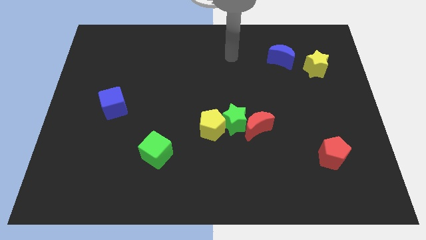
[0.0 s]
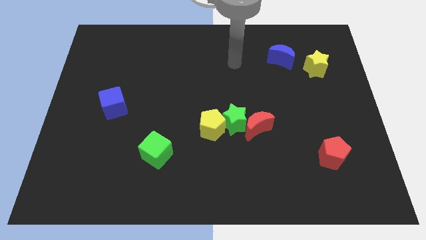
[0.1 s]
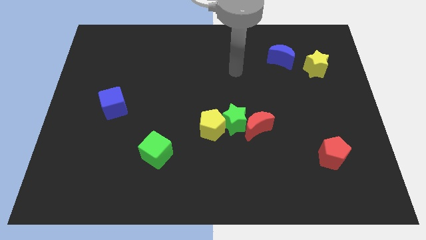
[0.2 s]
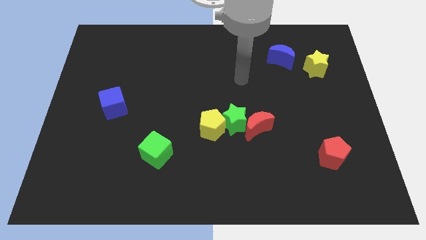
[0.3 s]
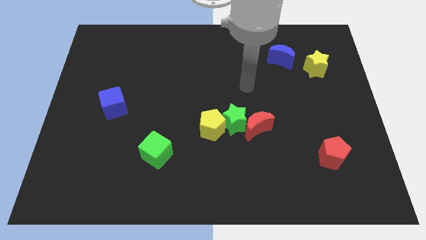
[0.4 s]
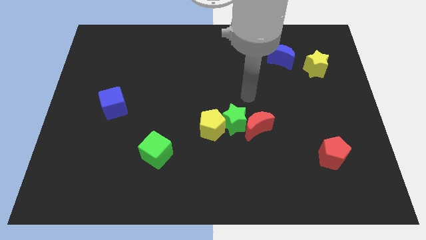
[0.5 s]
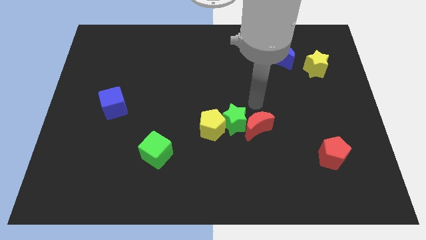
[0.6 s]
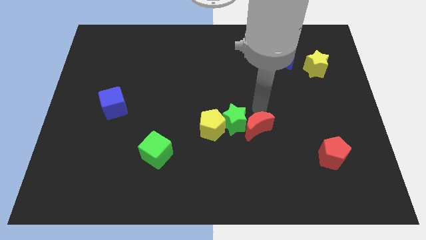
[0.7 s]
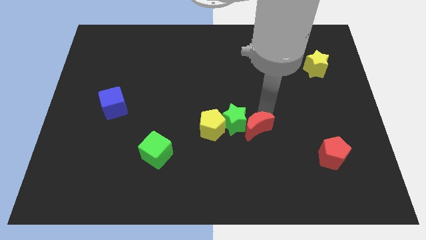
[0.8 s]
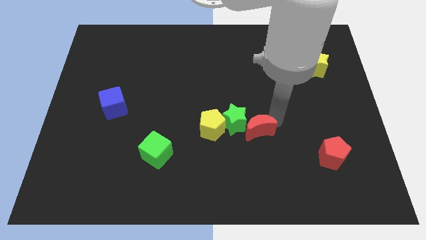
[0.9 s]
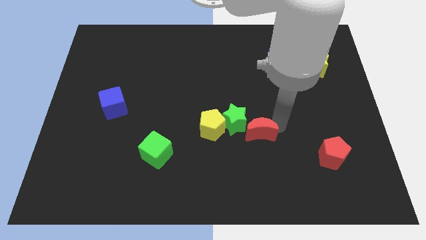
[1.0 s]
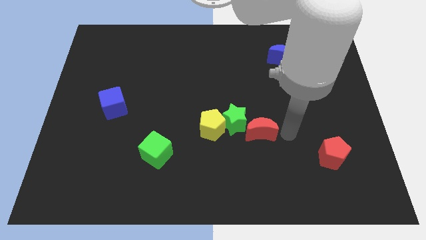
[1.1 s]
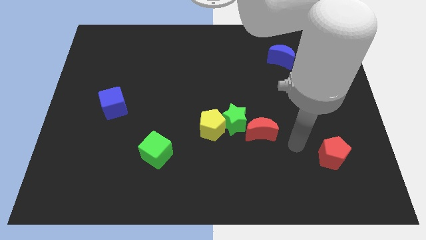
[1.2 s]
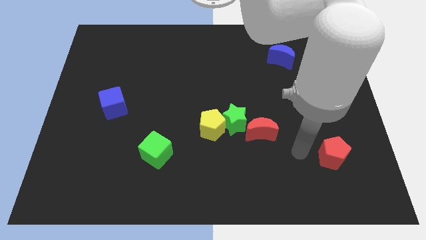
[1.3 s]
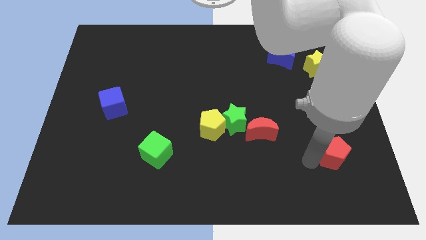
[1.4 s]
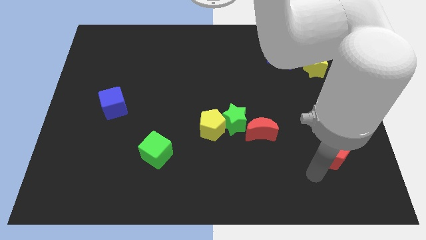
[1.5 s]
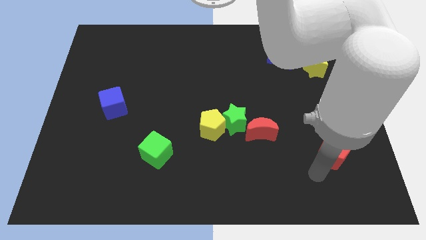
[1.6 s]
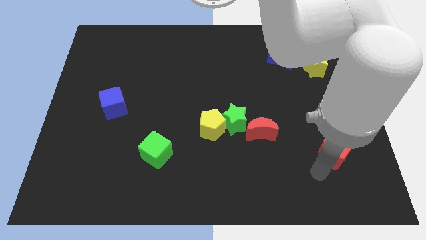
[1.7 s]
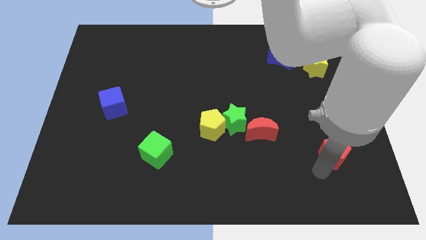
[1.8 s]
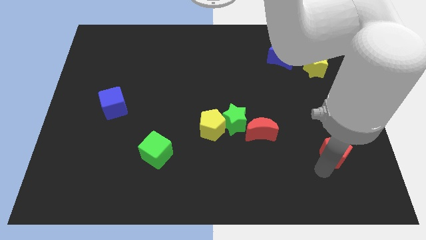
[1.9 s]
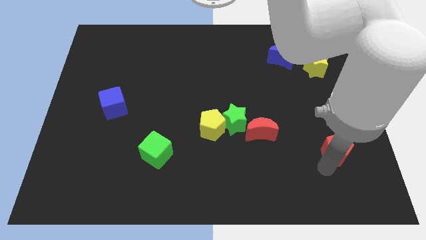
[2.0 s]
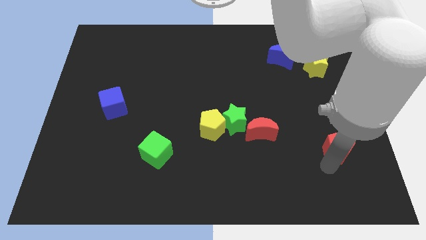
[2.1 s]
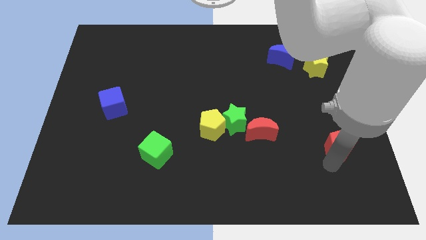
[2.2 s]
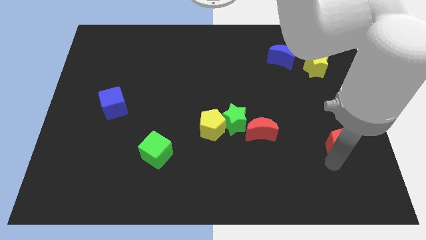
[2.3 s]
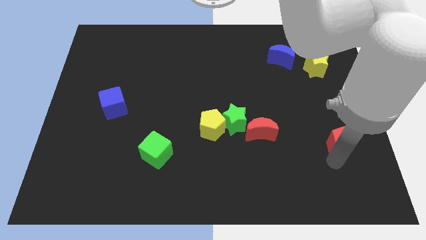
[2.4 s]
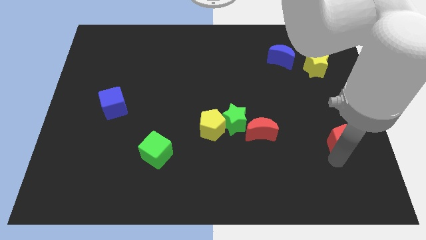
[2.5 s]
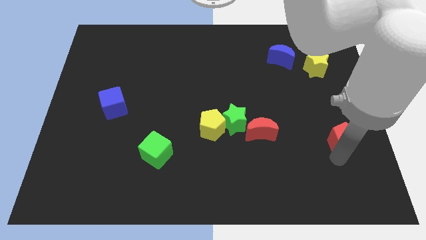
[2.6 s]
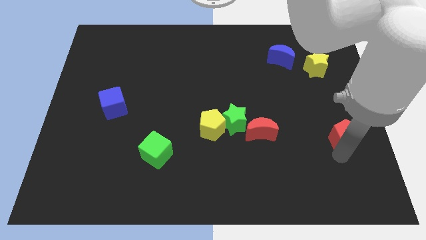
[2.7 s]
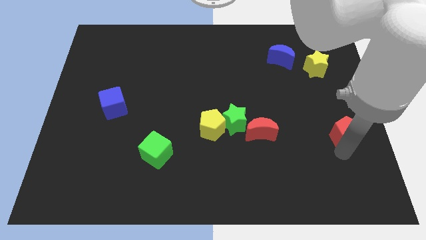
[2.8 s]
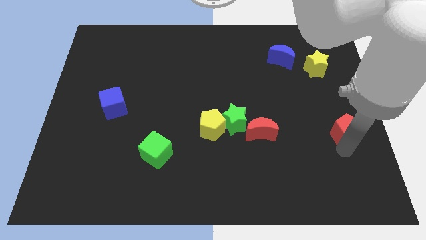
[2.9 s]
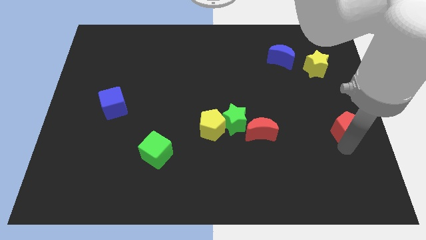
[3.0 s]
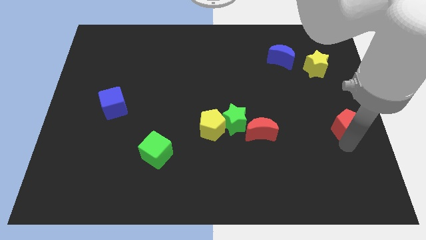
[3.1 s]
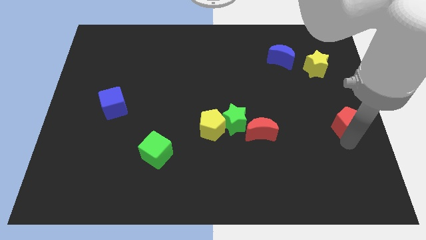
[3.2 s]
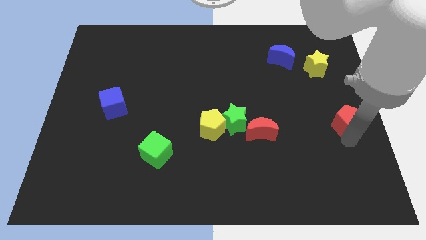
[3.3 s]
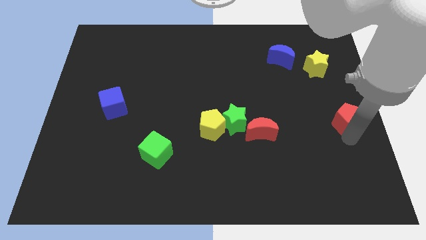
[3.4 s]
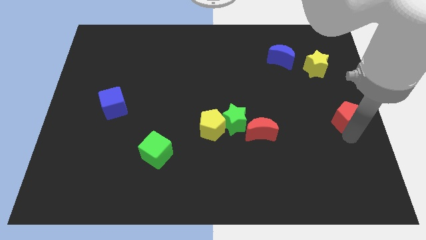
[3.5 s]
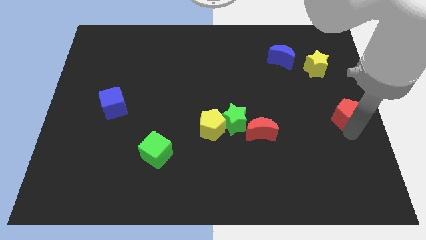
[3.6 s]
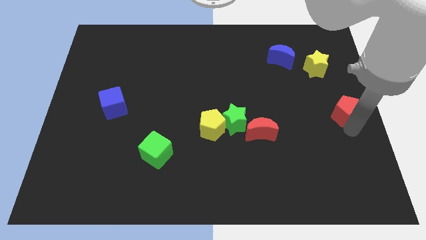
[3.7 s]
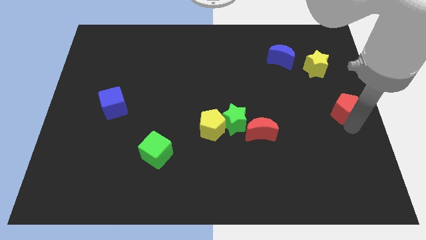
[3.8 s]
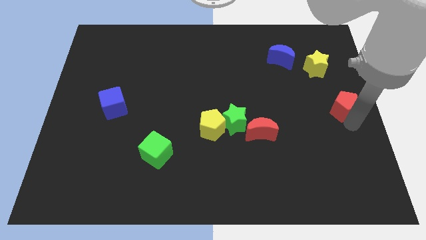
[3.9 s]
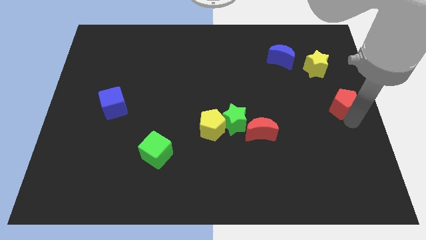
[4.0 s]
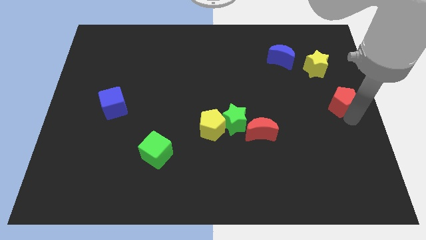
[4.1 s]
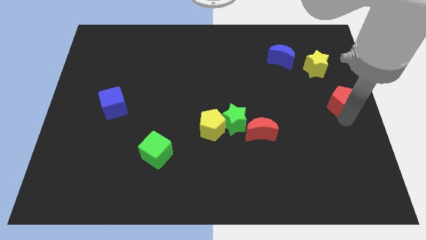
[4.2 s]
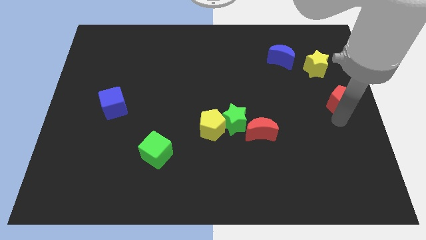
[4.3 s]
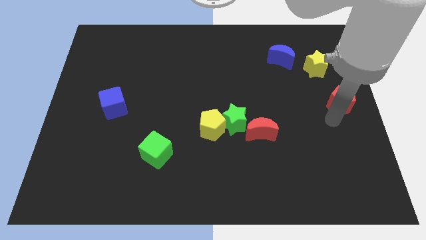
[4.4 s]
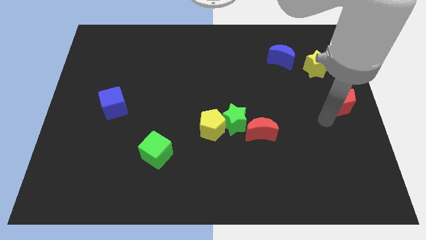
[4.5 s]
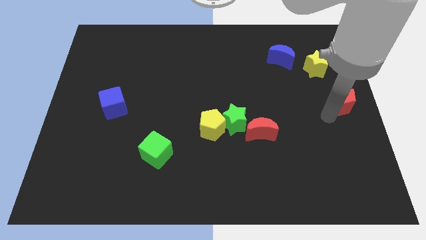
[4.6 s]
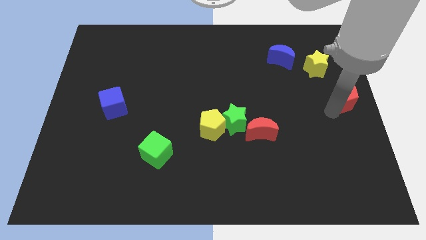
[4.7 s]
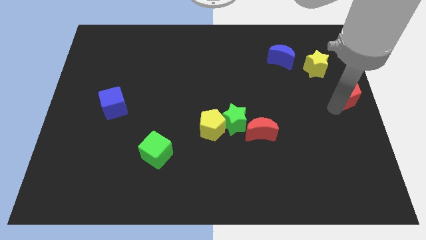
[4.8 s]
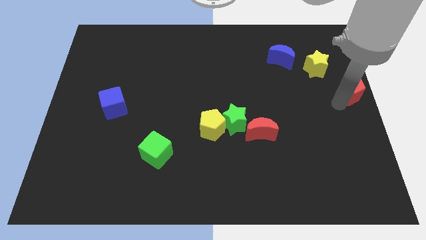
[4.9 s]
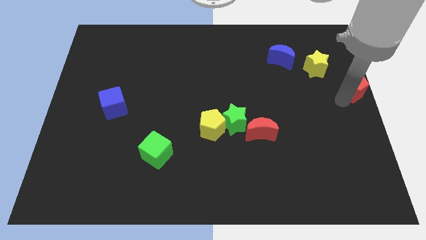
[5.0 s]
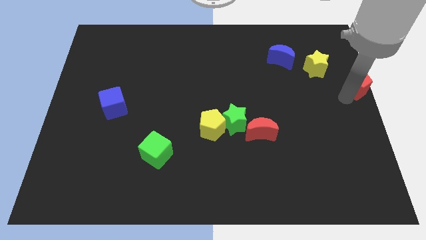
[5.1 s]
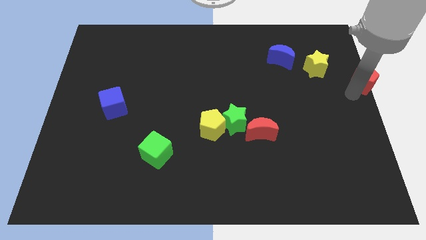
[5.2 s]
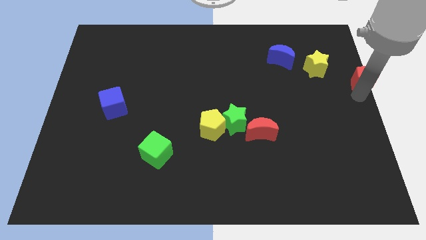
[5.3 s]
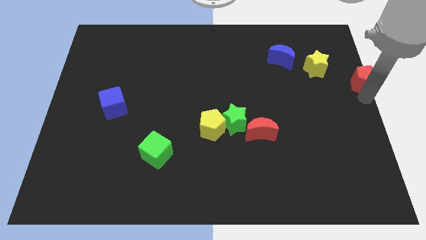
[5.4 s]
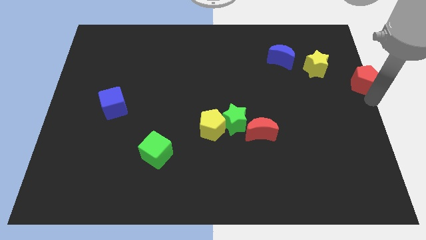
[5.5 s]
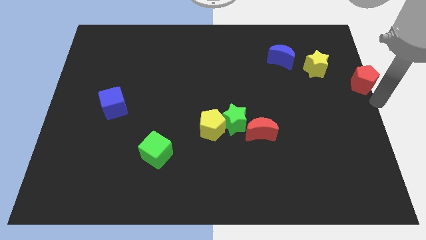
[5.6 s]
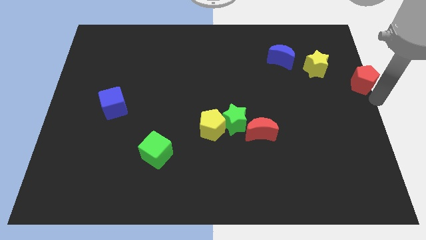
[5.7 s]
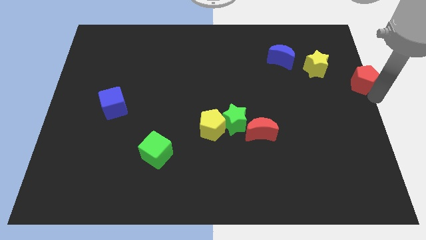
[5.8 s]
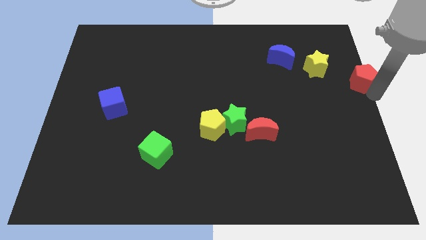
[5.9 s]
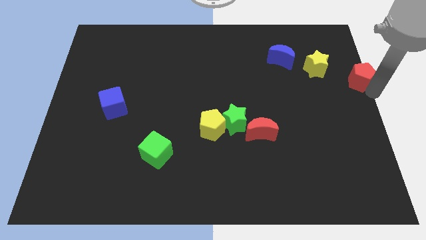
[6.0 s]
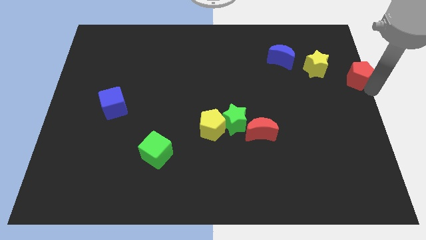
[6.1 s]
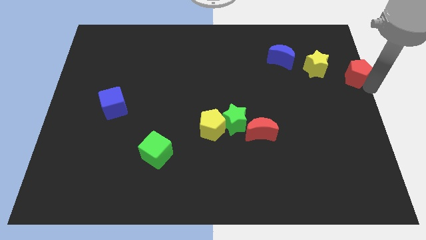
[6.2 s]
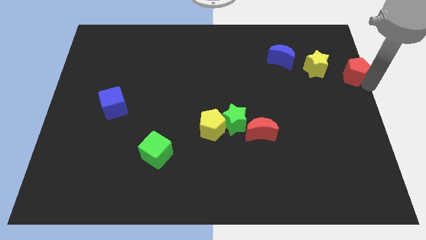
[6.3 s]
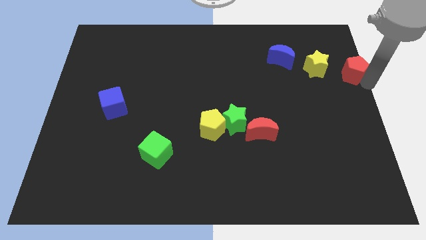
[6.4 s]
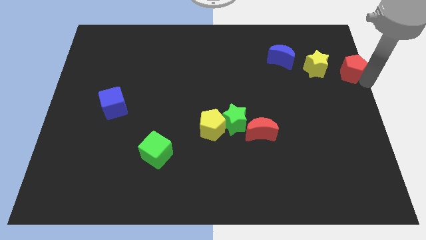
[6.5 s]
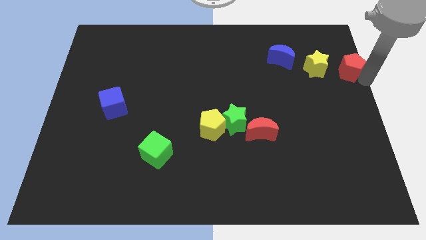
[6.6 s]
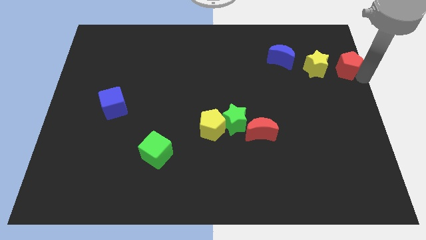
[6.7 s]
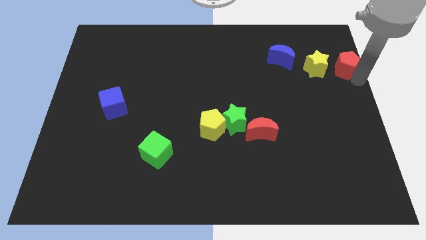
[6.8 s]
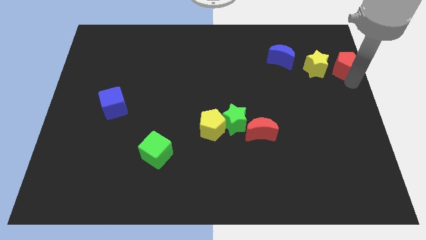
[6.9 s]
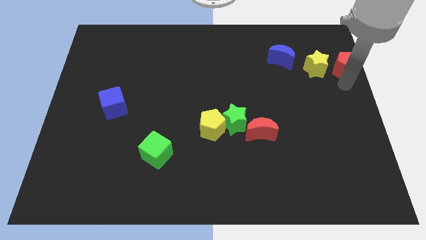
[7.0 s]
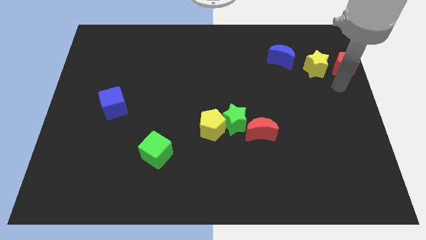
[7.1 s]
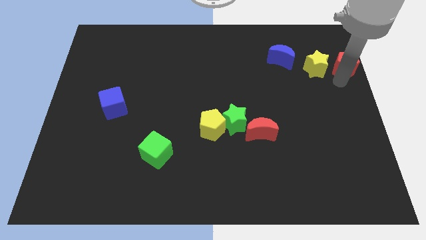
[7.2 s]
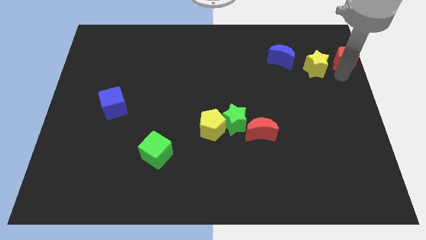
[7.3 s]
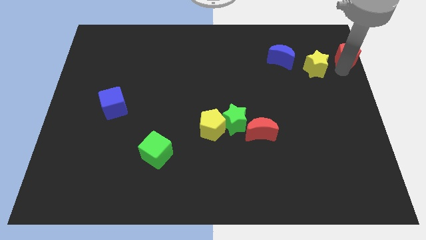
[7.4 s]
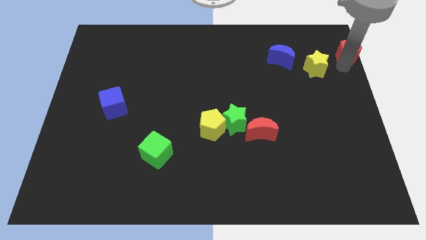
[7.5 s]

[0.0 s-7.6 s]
move the red pentagon to the top right

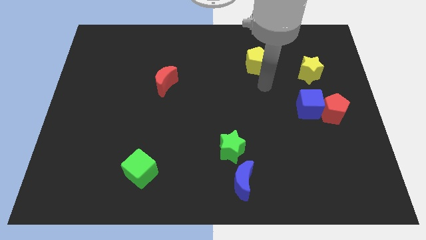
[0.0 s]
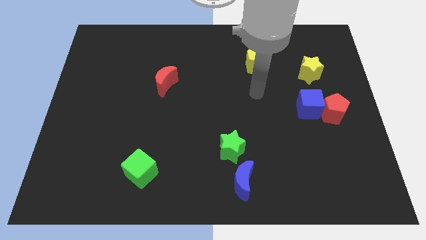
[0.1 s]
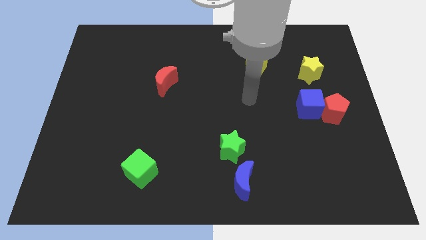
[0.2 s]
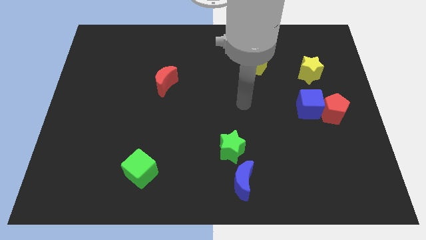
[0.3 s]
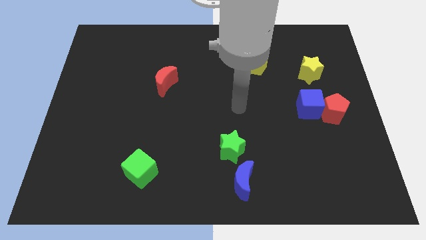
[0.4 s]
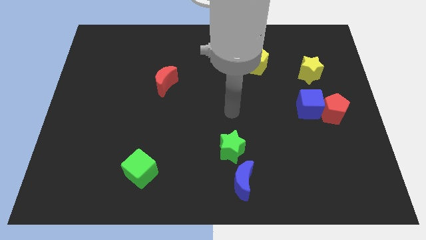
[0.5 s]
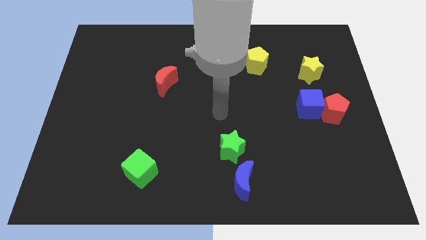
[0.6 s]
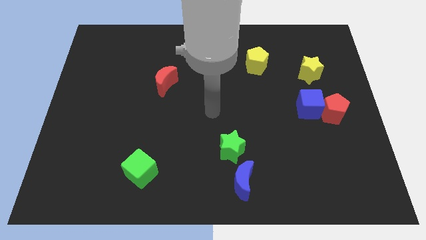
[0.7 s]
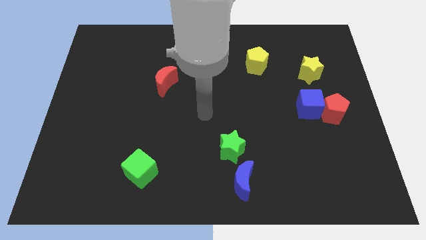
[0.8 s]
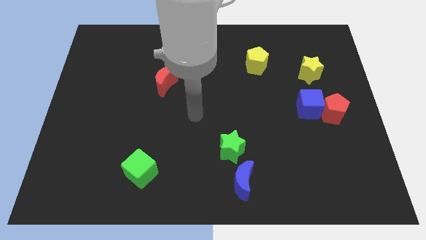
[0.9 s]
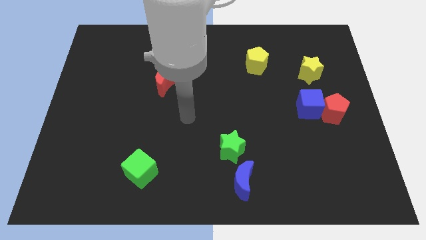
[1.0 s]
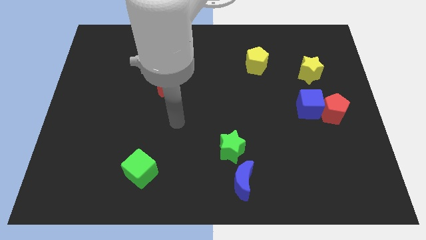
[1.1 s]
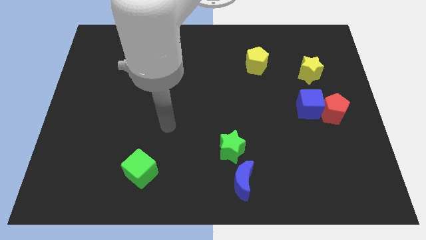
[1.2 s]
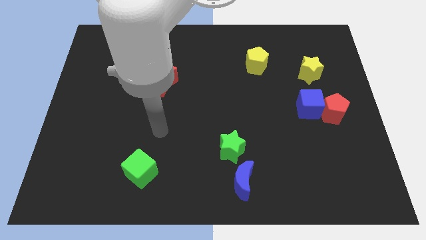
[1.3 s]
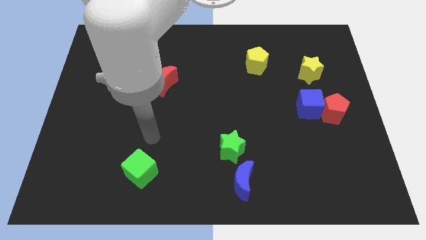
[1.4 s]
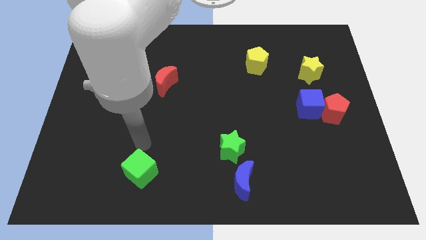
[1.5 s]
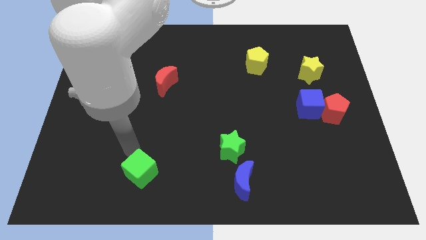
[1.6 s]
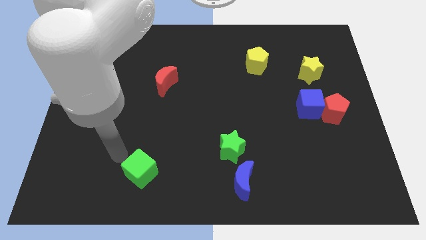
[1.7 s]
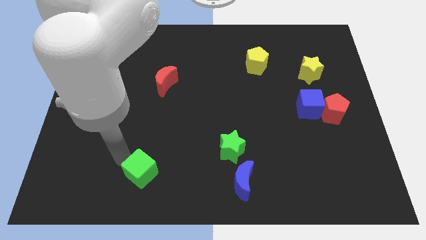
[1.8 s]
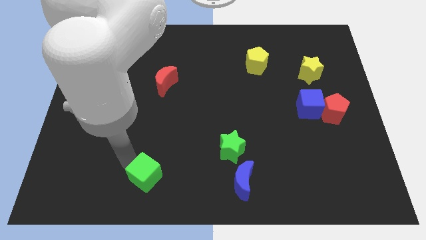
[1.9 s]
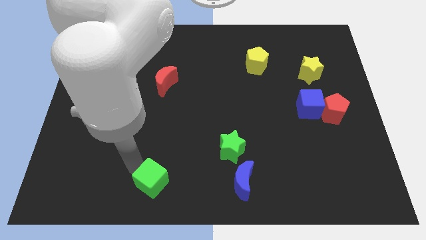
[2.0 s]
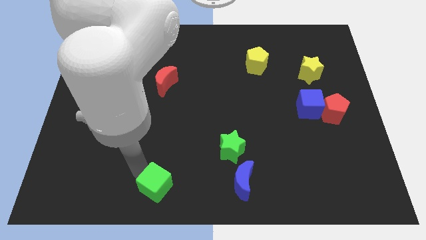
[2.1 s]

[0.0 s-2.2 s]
push the green cube to the bottom
